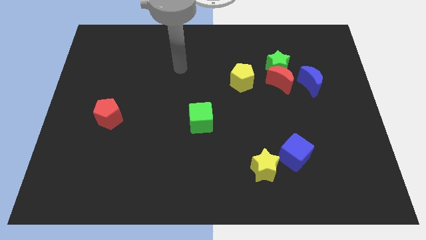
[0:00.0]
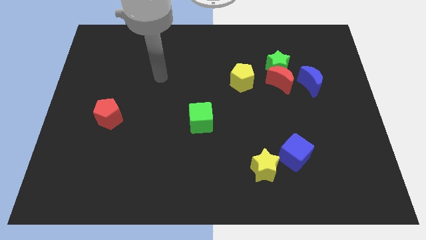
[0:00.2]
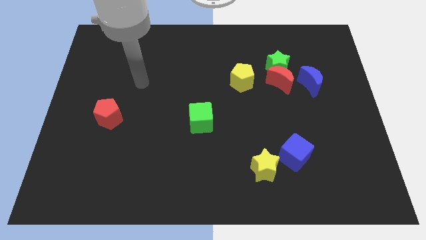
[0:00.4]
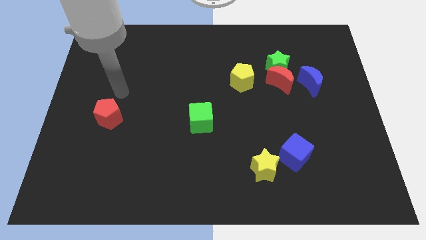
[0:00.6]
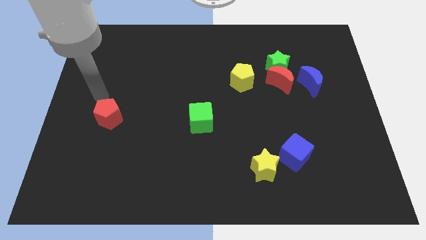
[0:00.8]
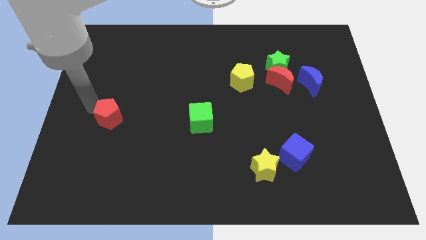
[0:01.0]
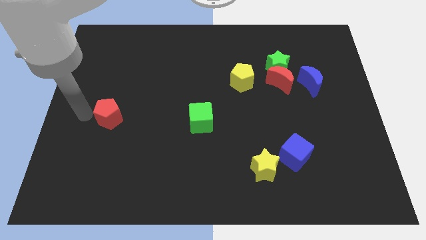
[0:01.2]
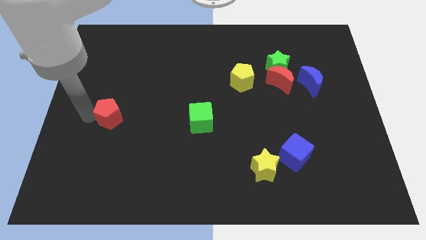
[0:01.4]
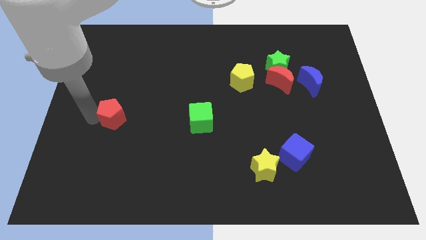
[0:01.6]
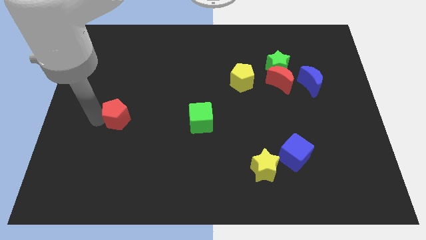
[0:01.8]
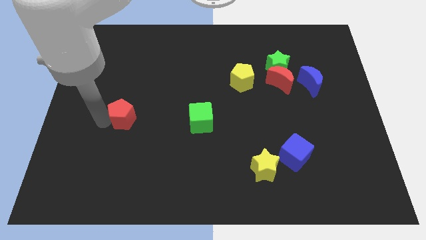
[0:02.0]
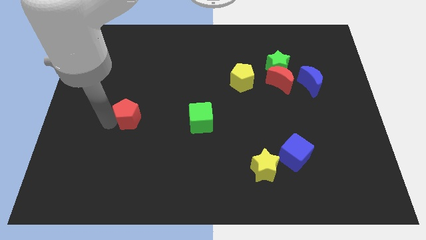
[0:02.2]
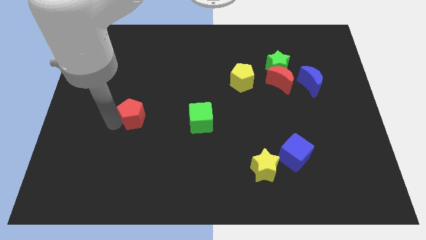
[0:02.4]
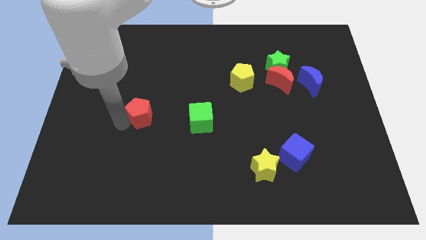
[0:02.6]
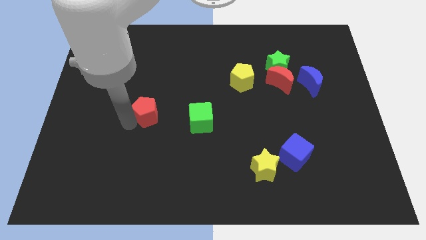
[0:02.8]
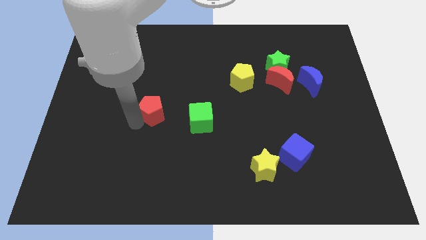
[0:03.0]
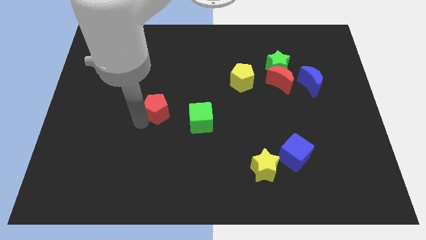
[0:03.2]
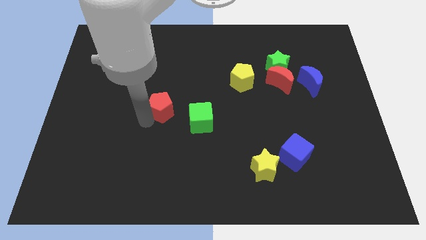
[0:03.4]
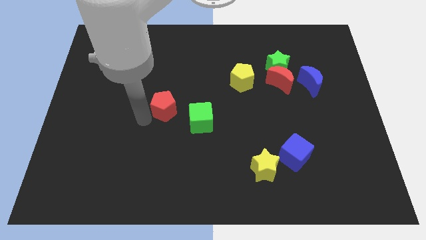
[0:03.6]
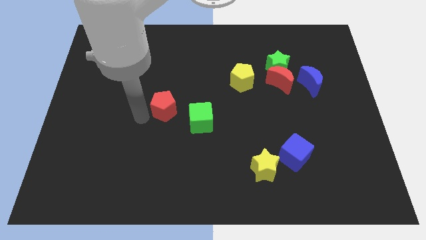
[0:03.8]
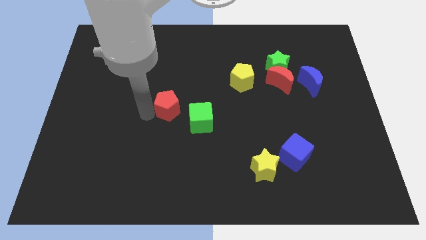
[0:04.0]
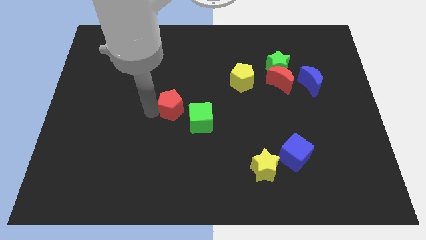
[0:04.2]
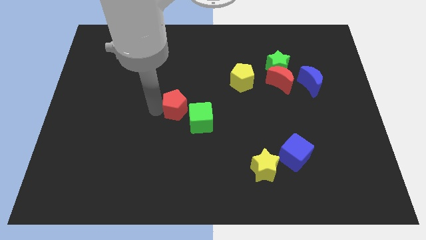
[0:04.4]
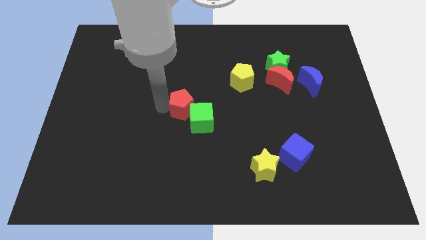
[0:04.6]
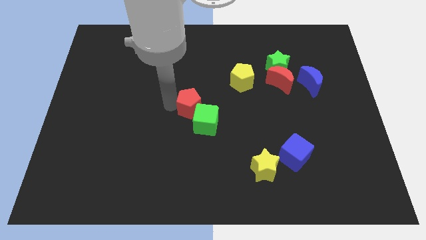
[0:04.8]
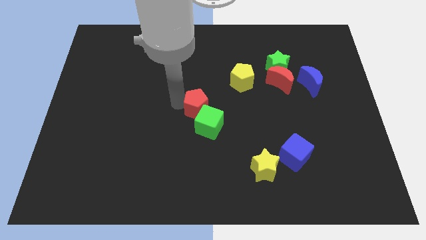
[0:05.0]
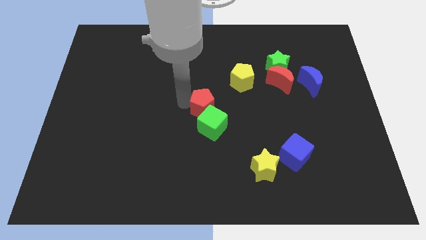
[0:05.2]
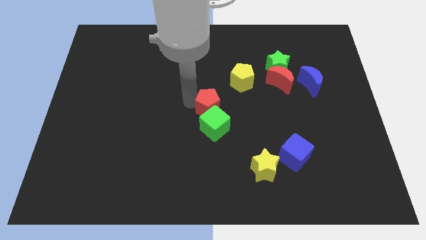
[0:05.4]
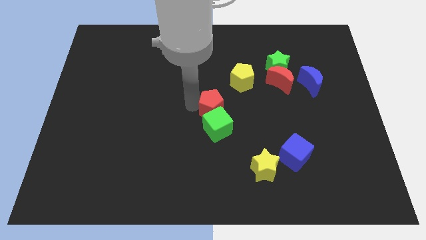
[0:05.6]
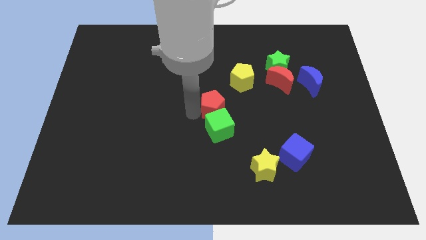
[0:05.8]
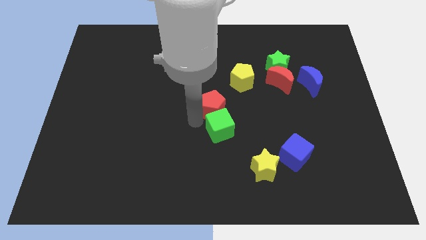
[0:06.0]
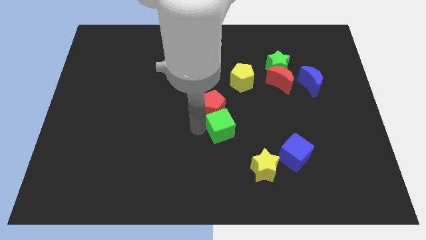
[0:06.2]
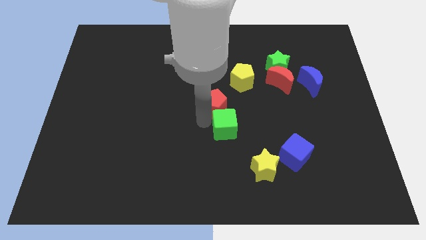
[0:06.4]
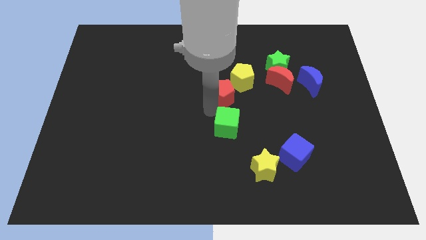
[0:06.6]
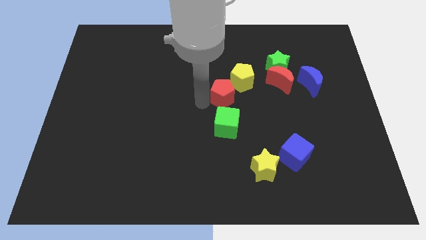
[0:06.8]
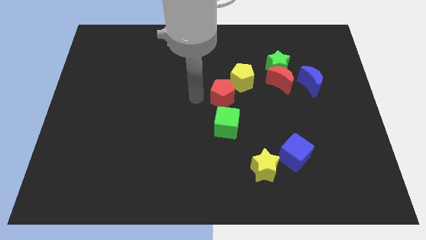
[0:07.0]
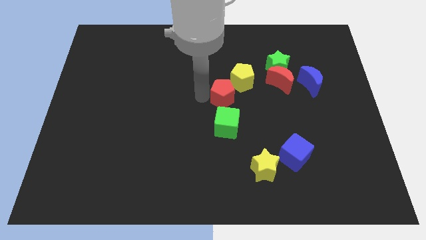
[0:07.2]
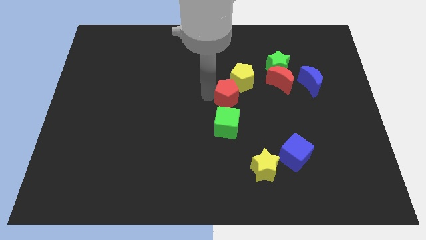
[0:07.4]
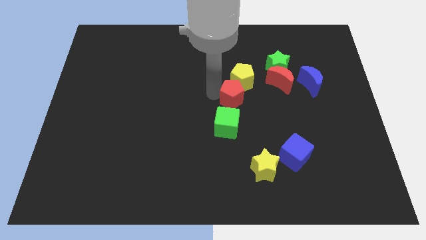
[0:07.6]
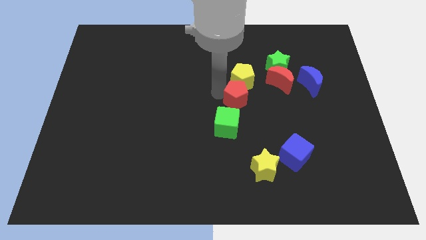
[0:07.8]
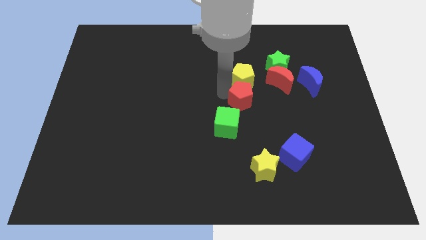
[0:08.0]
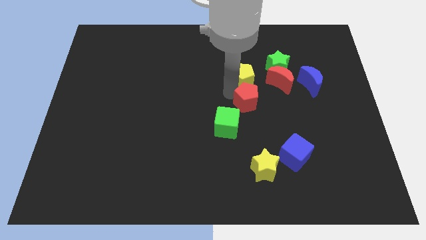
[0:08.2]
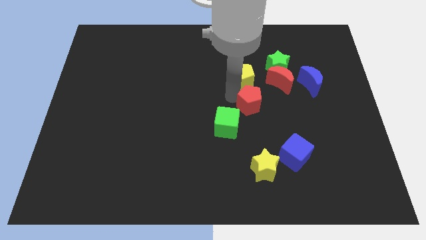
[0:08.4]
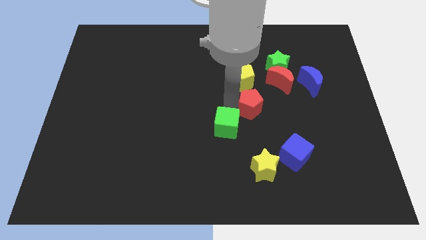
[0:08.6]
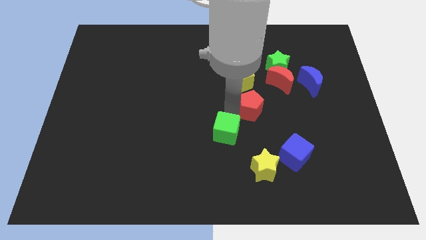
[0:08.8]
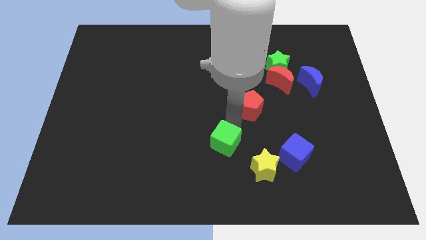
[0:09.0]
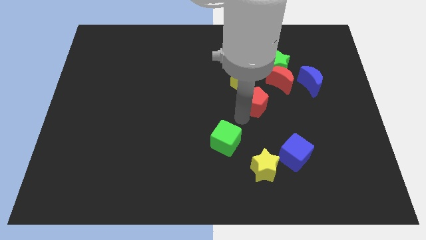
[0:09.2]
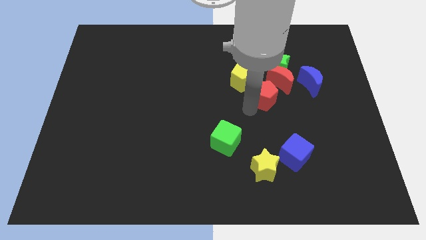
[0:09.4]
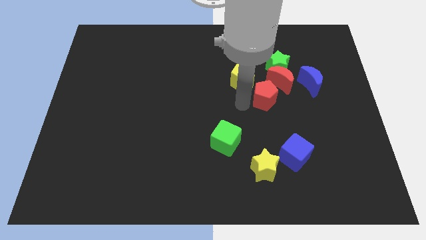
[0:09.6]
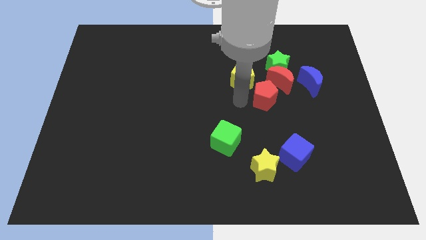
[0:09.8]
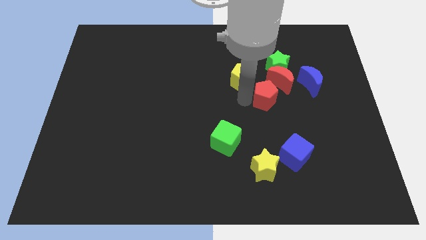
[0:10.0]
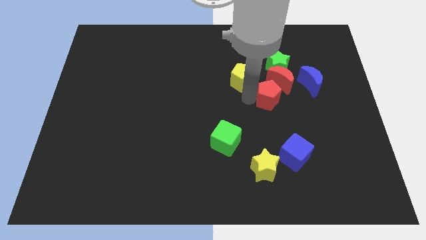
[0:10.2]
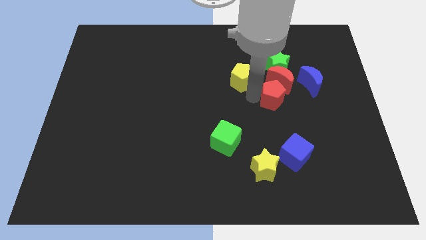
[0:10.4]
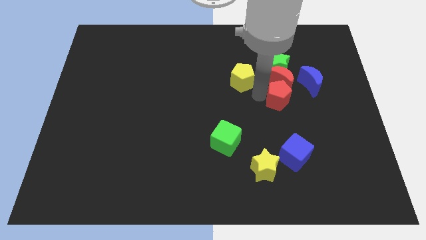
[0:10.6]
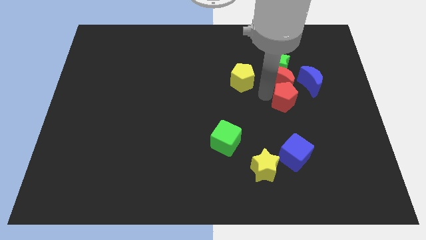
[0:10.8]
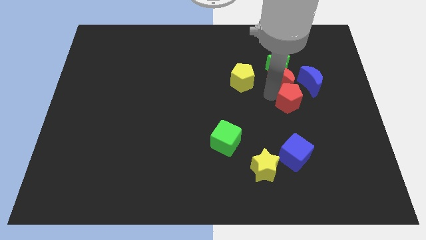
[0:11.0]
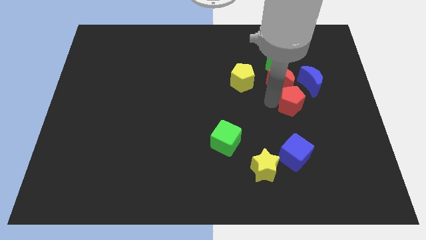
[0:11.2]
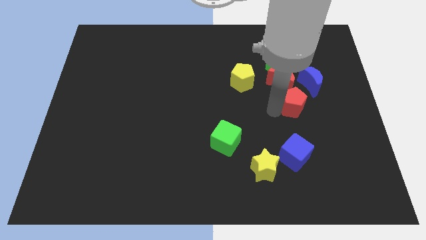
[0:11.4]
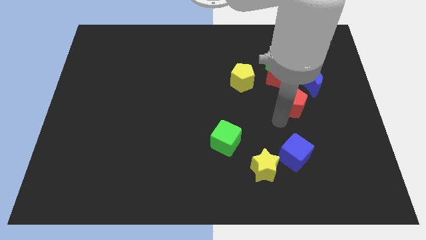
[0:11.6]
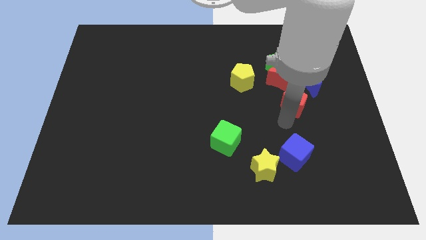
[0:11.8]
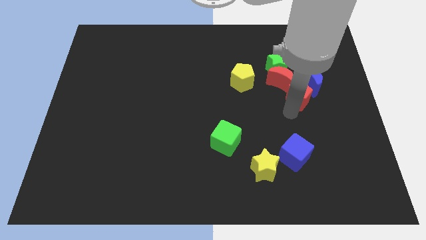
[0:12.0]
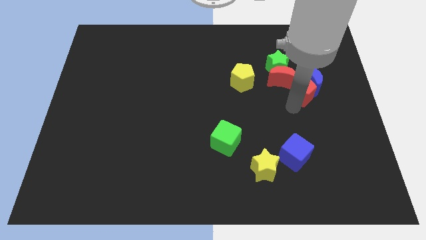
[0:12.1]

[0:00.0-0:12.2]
slide the red pentagon close to the blue moon

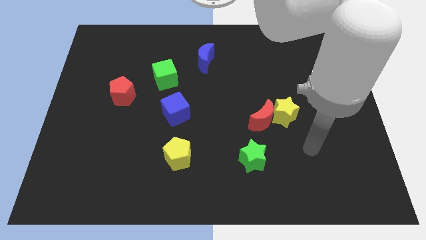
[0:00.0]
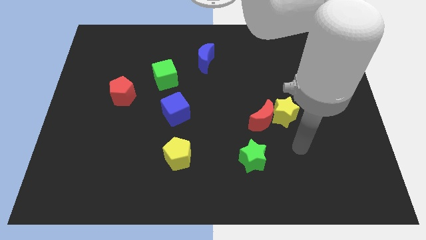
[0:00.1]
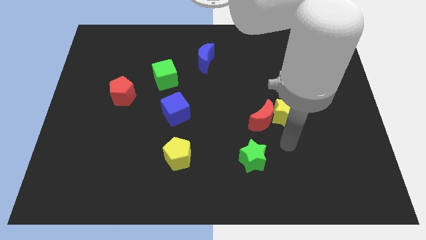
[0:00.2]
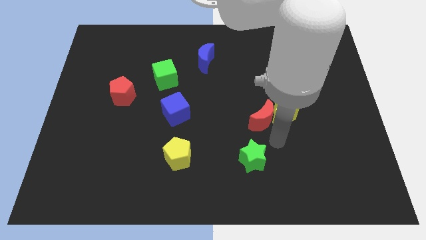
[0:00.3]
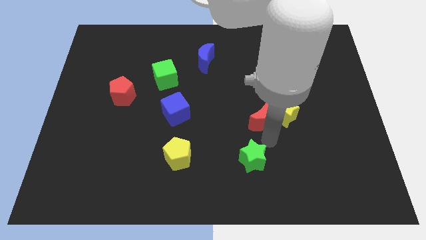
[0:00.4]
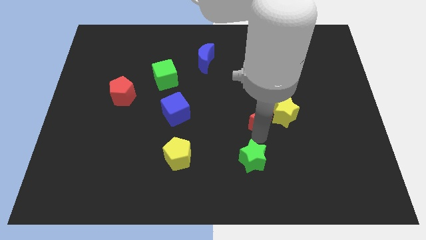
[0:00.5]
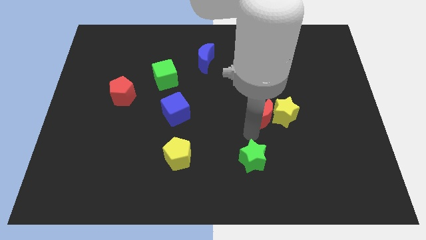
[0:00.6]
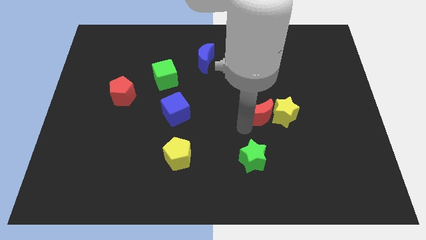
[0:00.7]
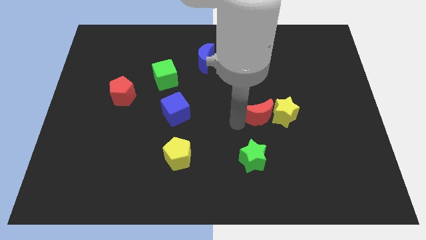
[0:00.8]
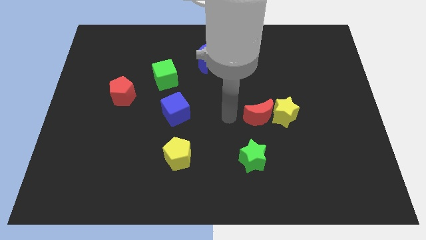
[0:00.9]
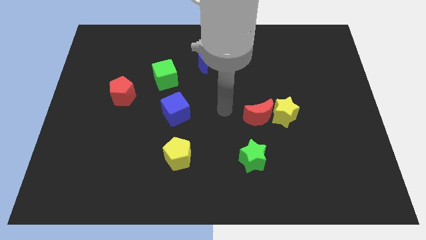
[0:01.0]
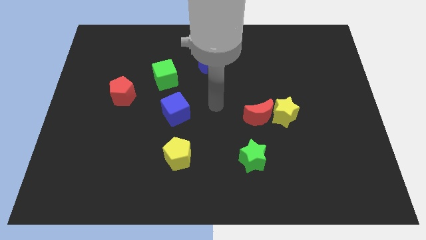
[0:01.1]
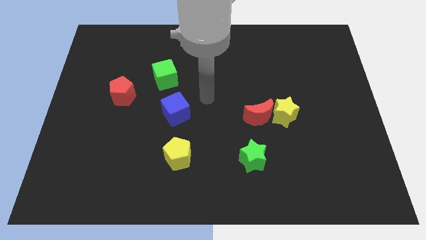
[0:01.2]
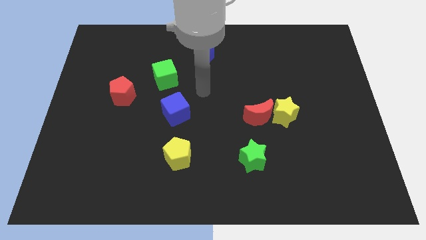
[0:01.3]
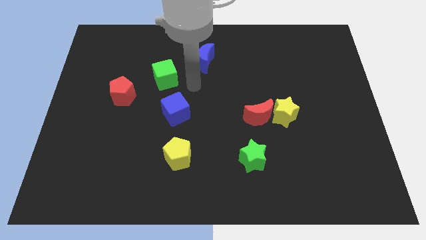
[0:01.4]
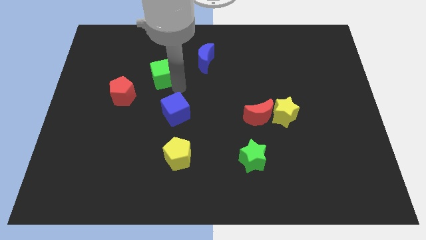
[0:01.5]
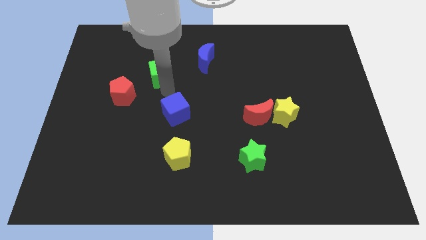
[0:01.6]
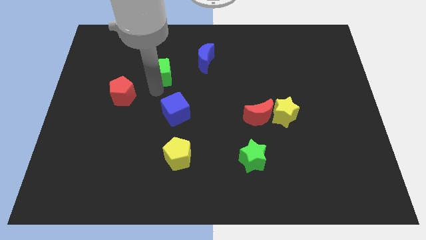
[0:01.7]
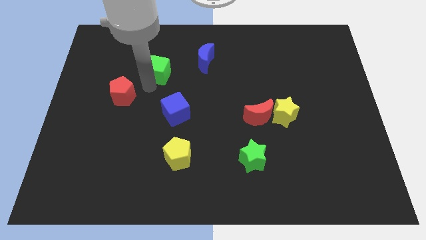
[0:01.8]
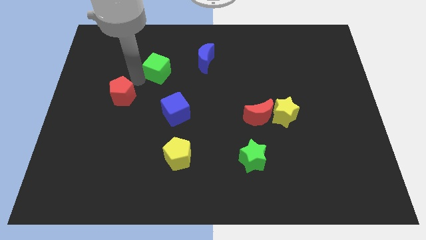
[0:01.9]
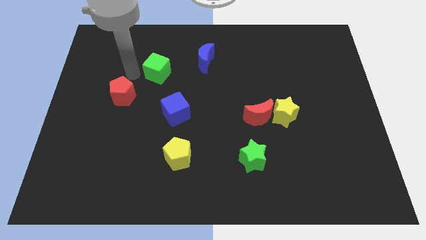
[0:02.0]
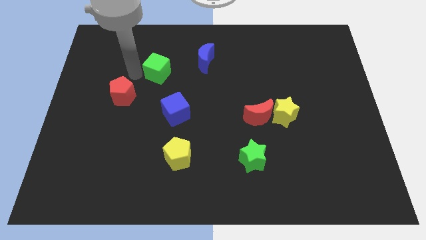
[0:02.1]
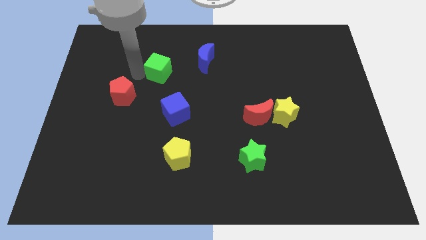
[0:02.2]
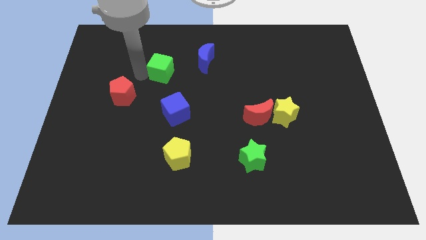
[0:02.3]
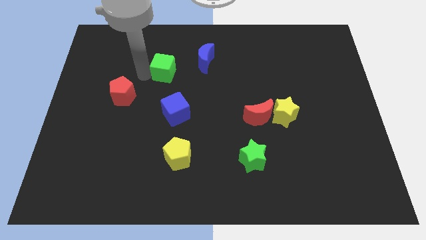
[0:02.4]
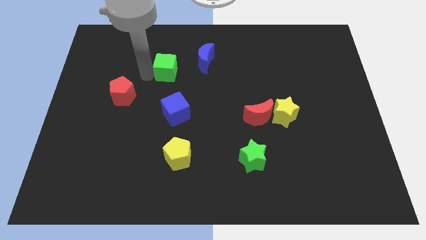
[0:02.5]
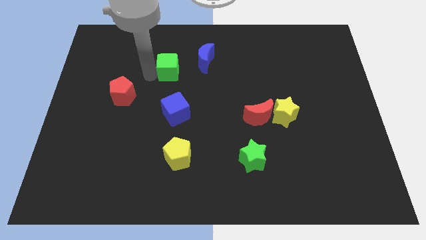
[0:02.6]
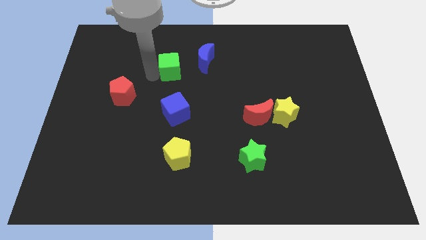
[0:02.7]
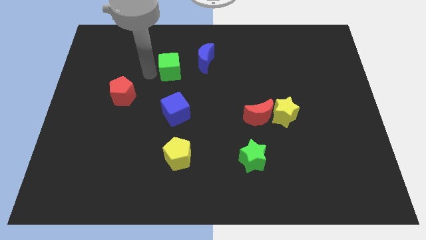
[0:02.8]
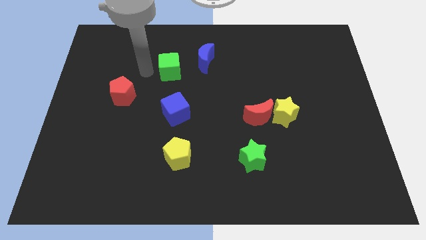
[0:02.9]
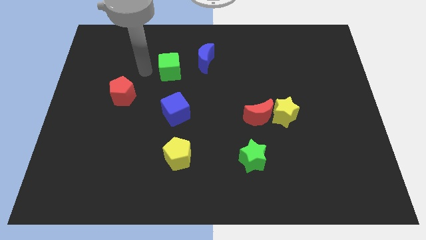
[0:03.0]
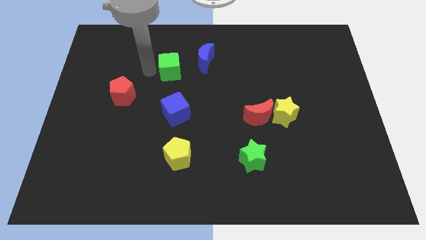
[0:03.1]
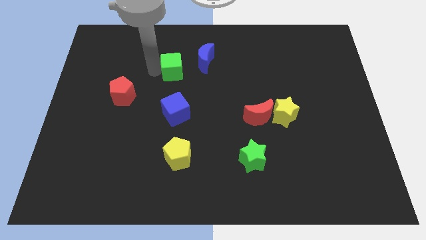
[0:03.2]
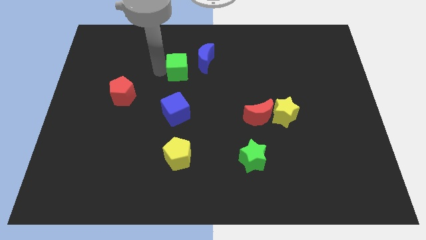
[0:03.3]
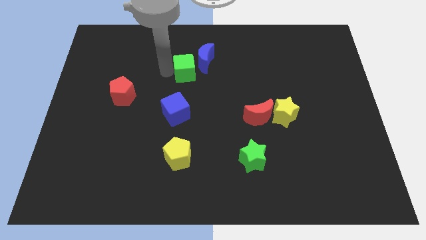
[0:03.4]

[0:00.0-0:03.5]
move the green cube close to the blue moon
